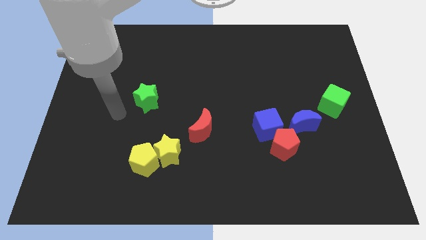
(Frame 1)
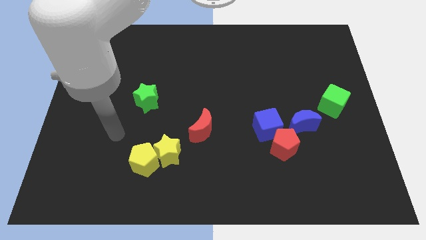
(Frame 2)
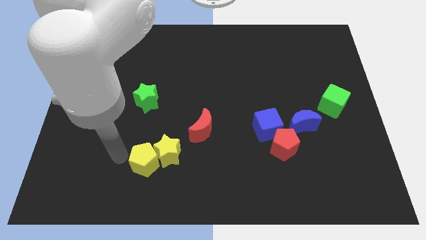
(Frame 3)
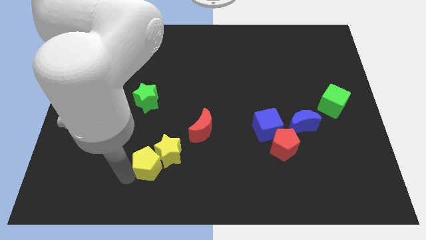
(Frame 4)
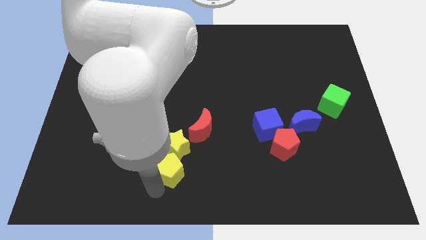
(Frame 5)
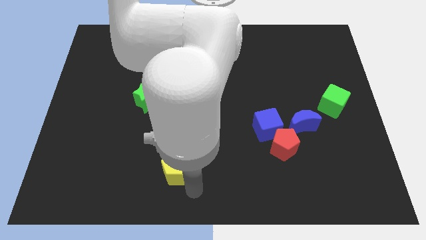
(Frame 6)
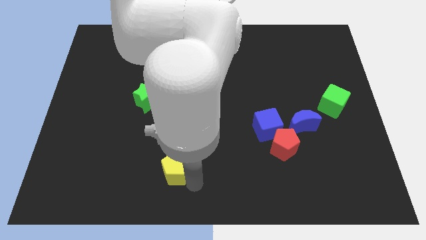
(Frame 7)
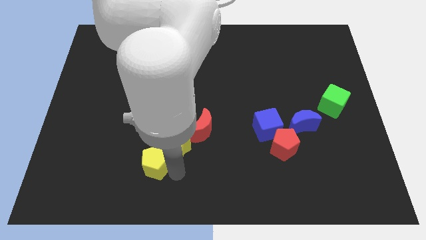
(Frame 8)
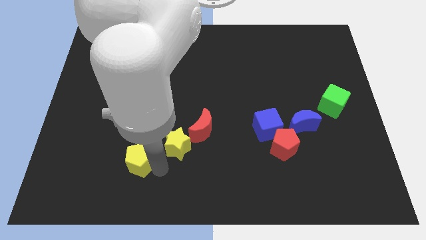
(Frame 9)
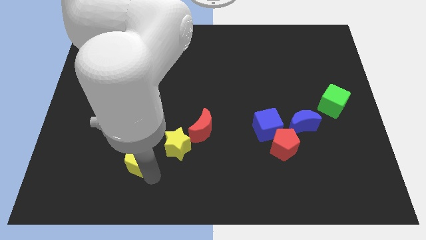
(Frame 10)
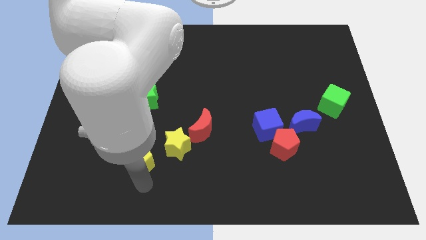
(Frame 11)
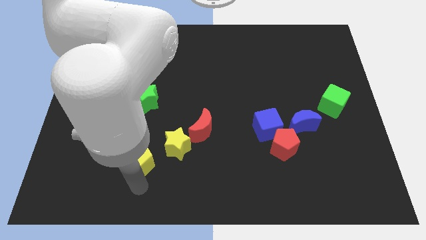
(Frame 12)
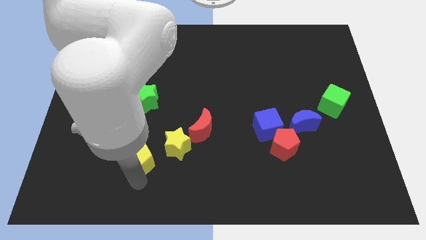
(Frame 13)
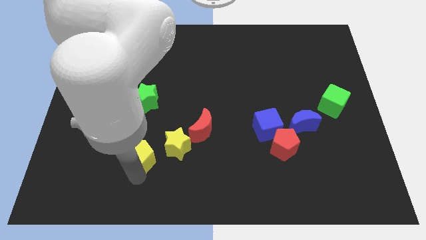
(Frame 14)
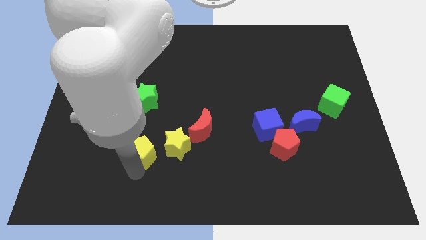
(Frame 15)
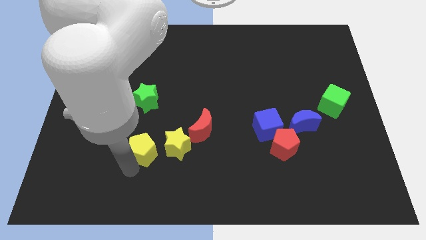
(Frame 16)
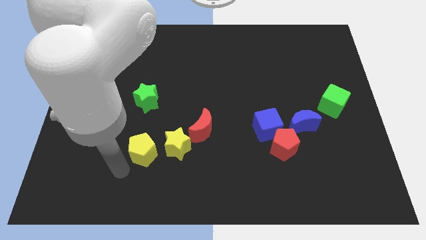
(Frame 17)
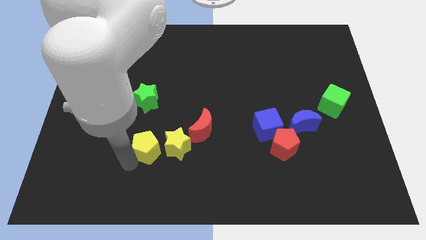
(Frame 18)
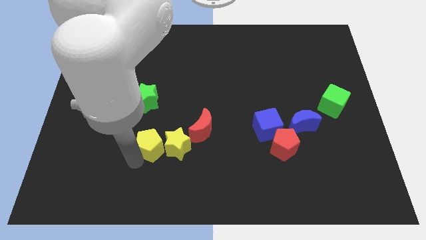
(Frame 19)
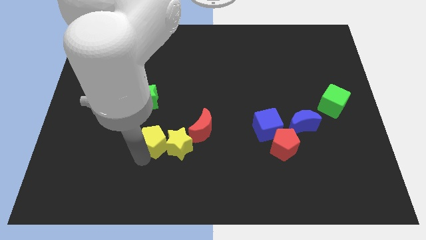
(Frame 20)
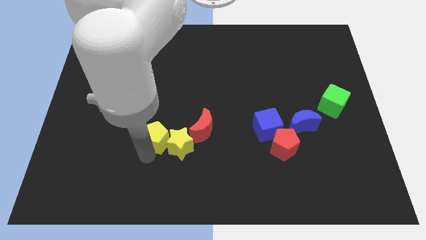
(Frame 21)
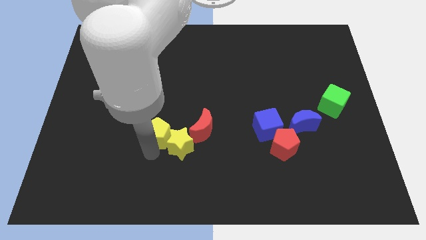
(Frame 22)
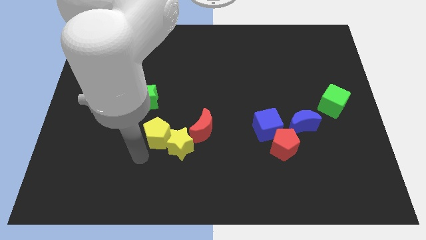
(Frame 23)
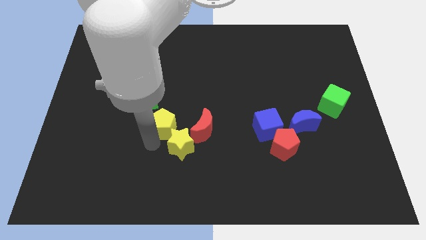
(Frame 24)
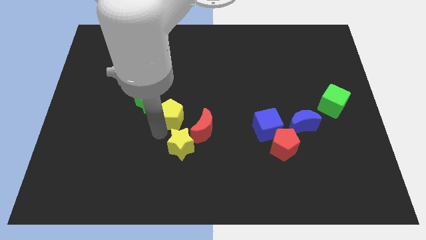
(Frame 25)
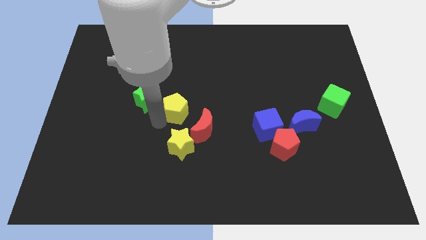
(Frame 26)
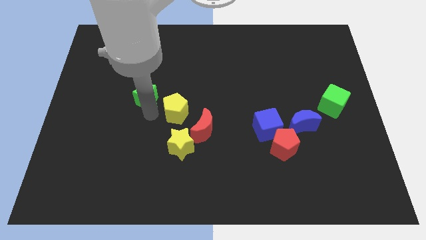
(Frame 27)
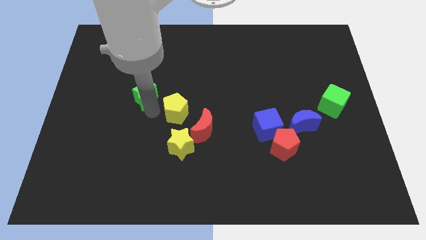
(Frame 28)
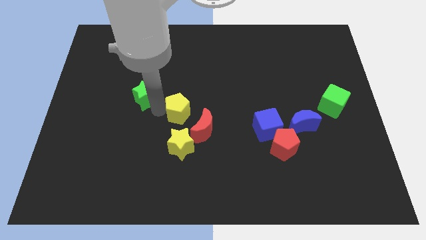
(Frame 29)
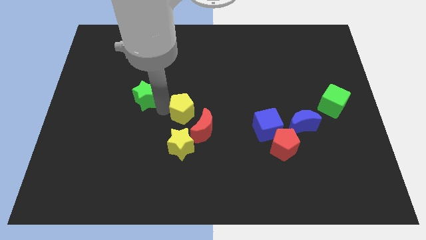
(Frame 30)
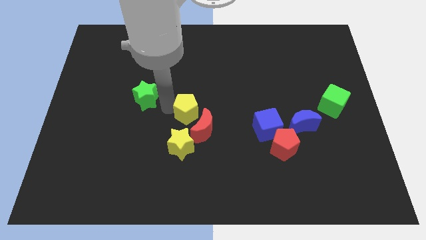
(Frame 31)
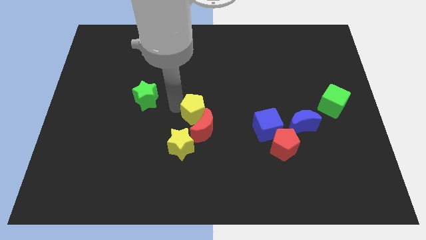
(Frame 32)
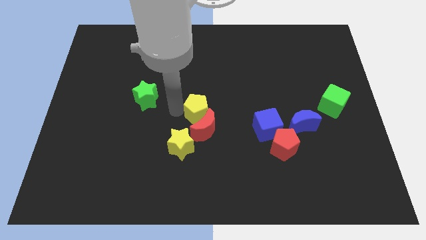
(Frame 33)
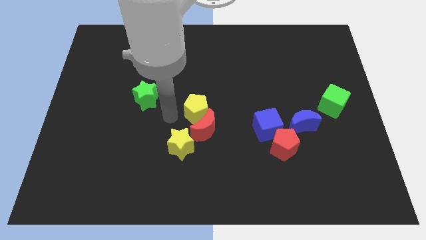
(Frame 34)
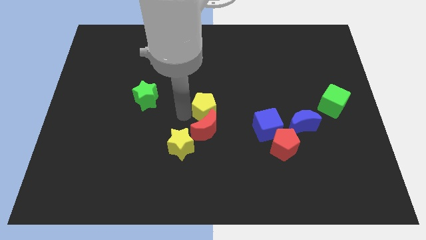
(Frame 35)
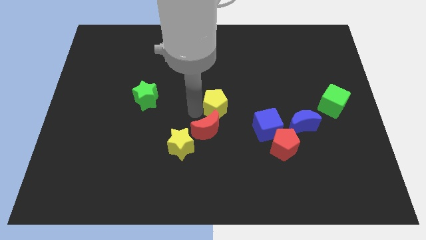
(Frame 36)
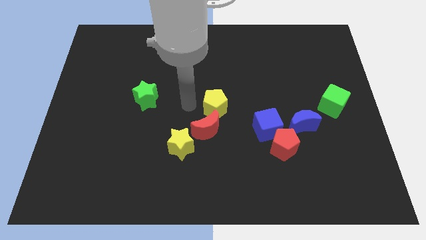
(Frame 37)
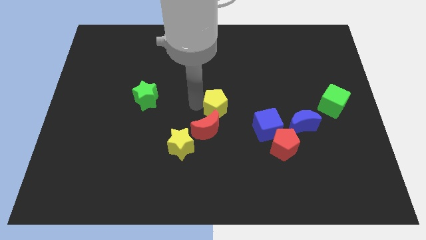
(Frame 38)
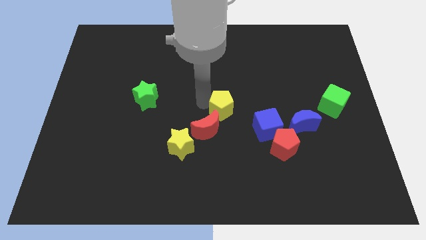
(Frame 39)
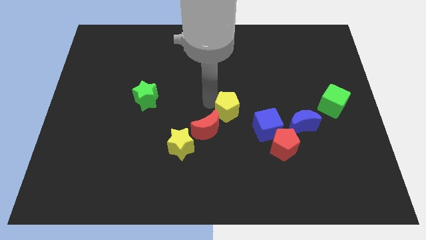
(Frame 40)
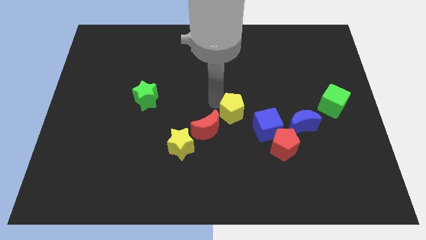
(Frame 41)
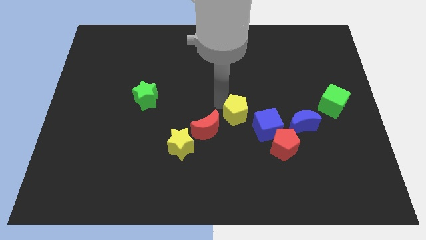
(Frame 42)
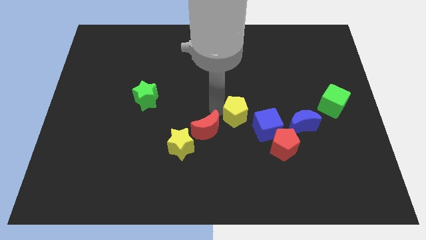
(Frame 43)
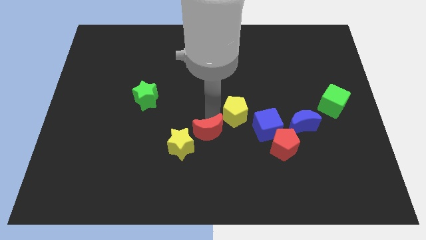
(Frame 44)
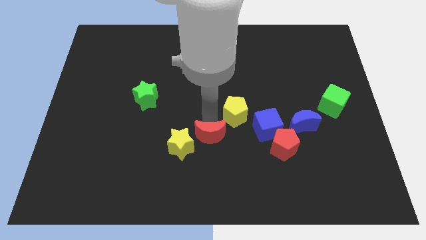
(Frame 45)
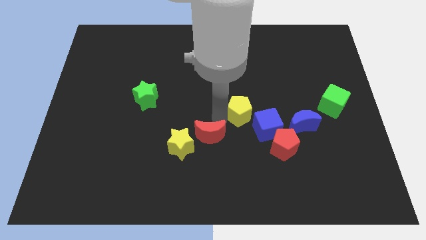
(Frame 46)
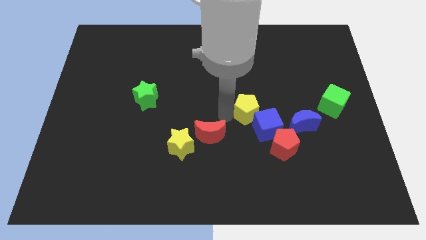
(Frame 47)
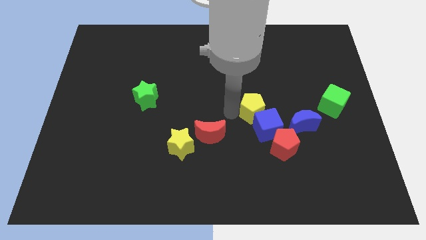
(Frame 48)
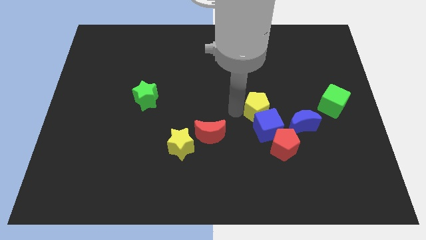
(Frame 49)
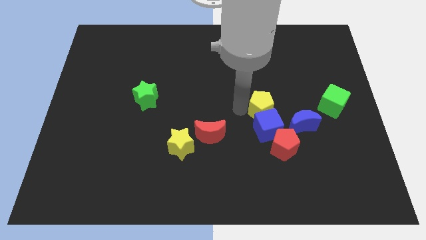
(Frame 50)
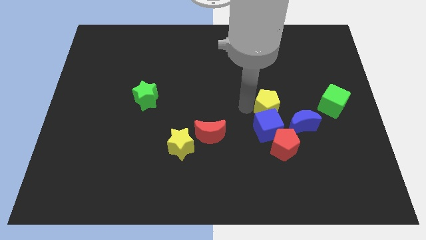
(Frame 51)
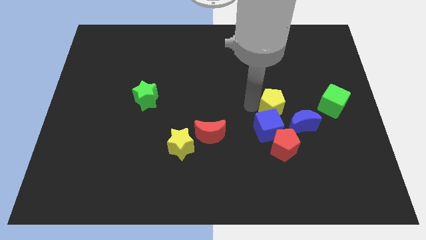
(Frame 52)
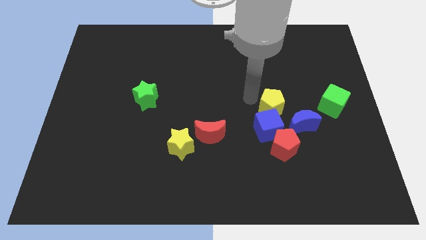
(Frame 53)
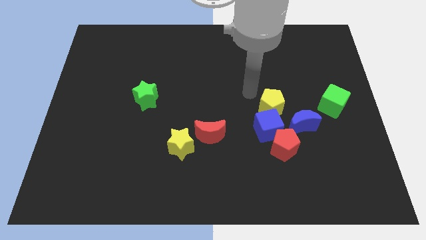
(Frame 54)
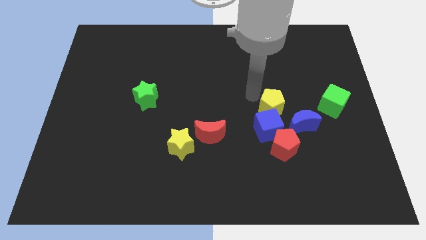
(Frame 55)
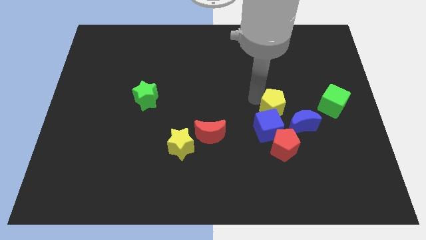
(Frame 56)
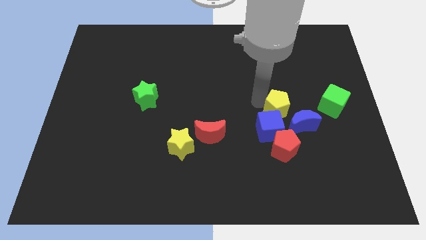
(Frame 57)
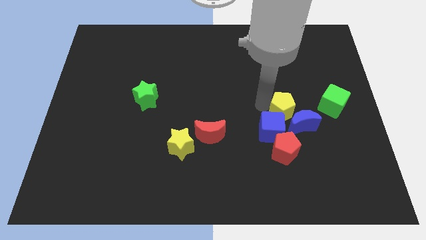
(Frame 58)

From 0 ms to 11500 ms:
push the yellow pentagon to the blue moon

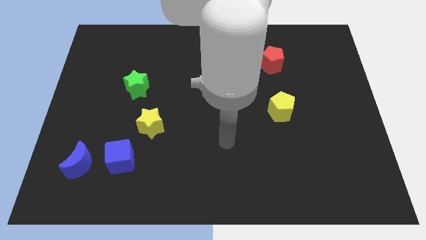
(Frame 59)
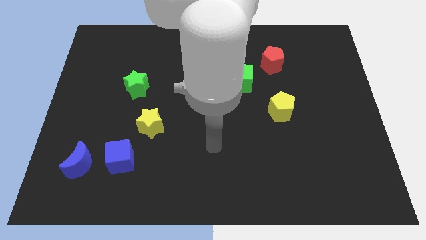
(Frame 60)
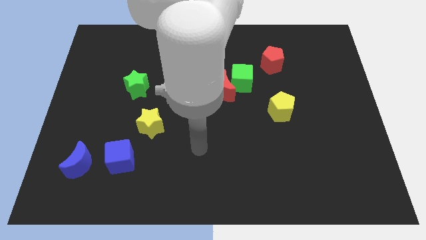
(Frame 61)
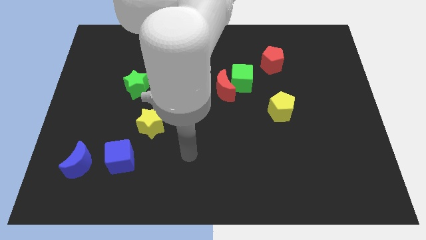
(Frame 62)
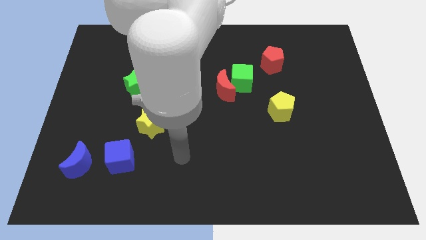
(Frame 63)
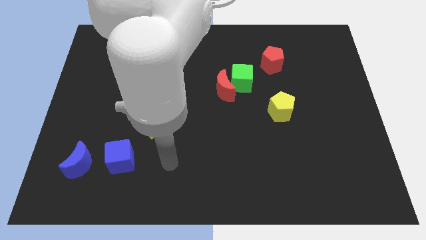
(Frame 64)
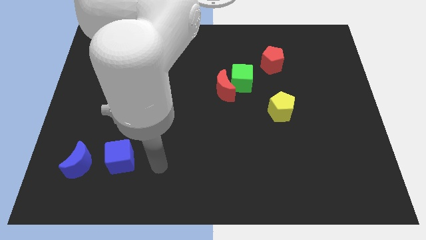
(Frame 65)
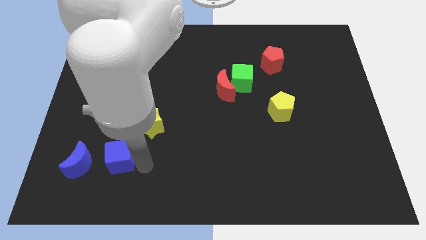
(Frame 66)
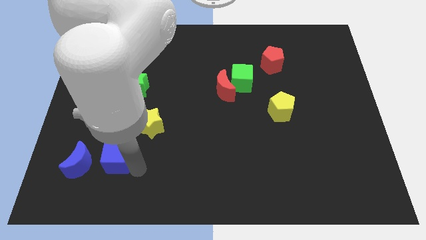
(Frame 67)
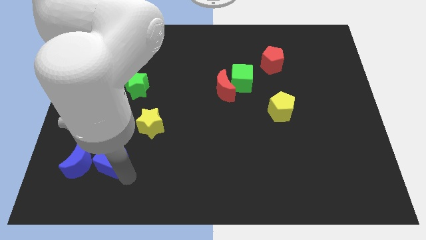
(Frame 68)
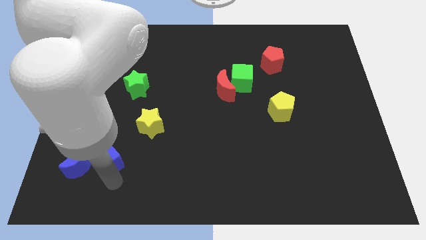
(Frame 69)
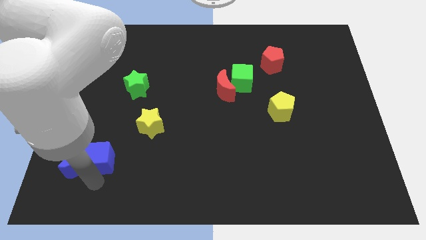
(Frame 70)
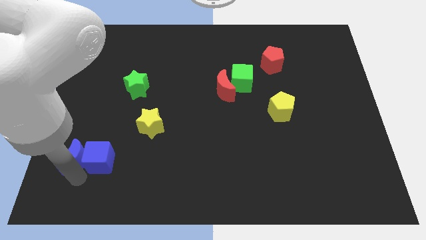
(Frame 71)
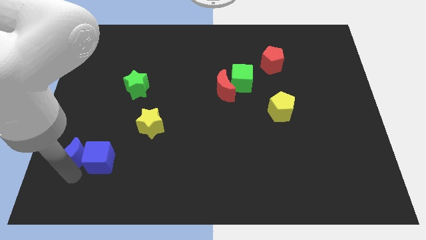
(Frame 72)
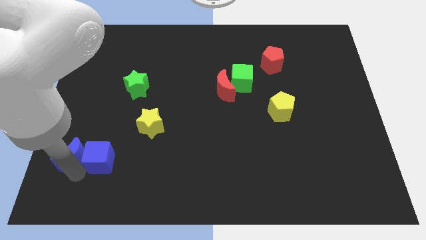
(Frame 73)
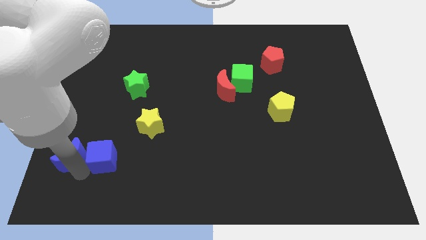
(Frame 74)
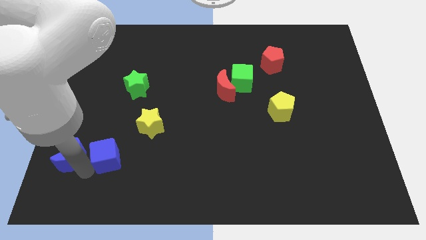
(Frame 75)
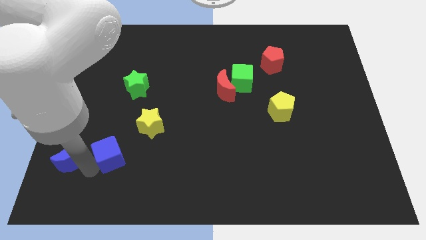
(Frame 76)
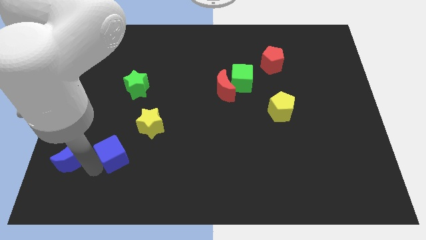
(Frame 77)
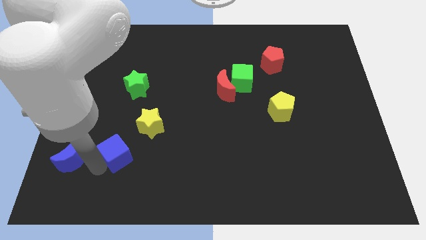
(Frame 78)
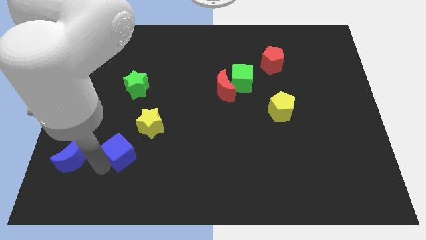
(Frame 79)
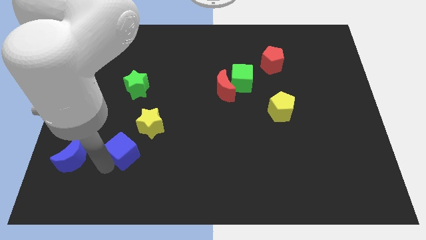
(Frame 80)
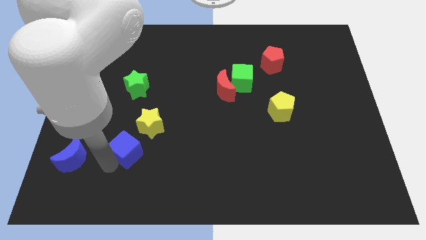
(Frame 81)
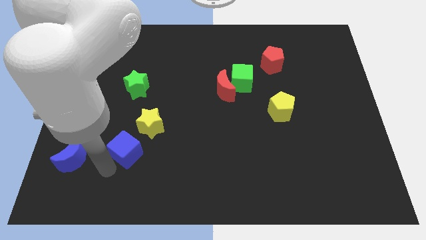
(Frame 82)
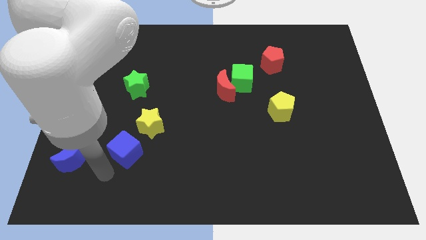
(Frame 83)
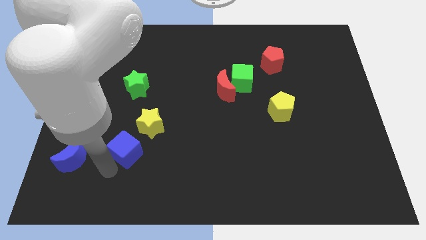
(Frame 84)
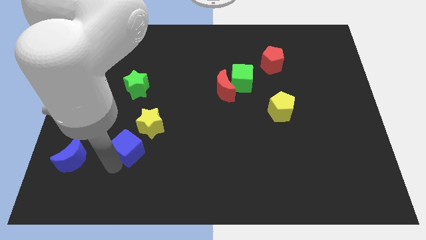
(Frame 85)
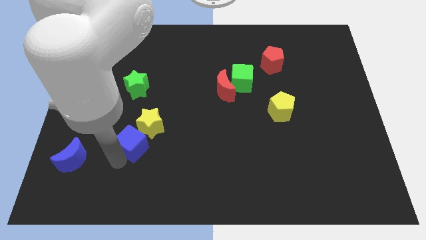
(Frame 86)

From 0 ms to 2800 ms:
move the blue cube towards the yellow star
